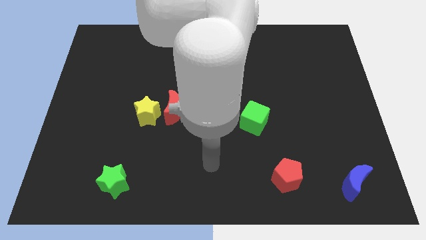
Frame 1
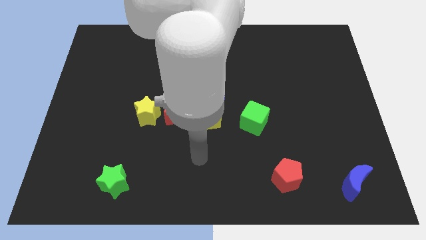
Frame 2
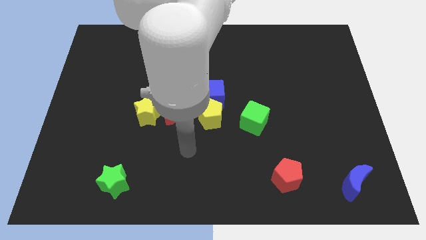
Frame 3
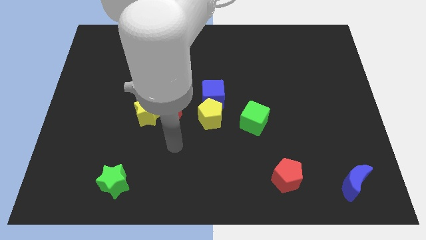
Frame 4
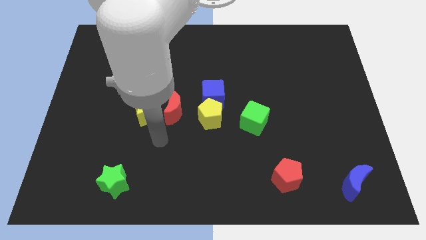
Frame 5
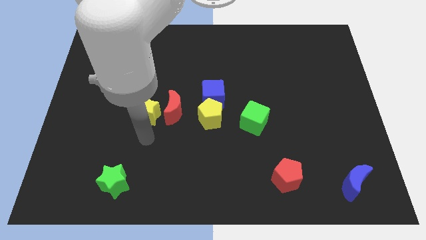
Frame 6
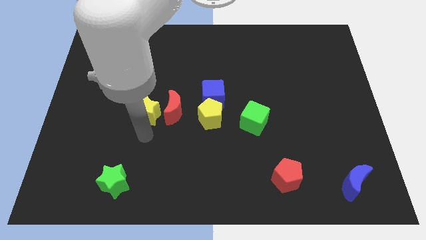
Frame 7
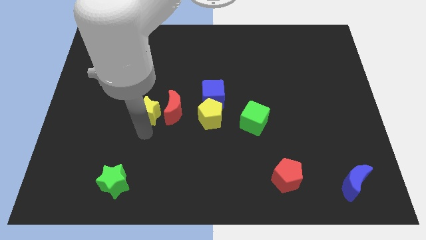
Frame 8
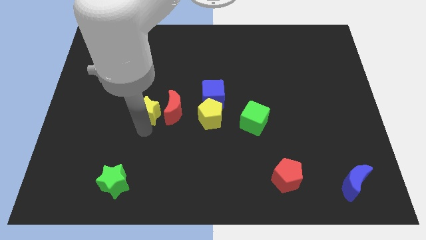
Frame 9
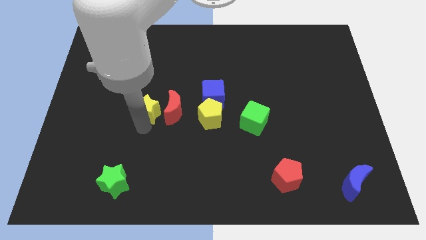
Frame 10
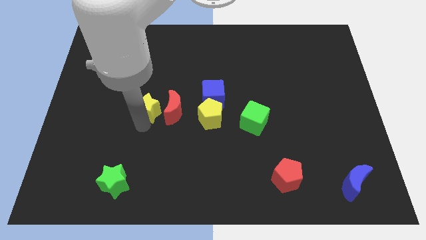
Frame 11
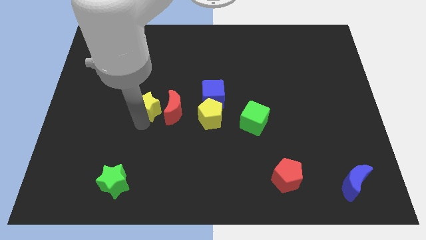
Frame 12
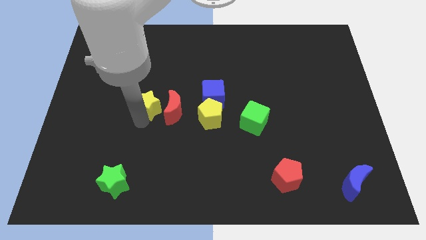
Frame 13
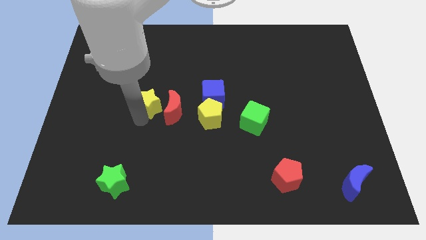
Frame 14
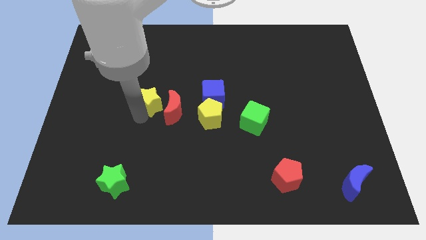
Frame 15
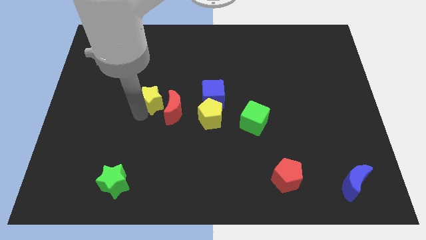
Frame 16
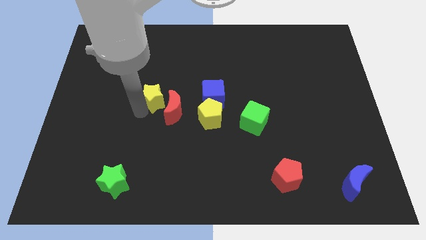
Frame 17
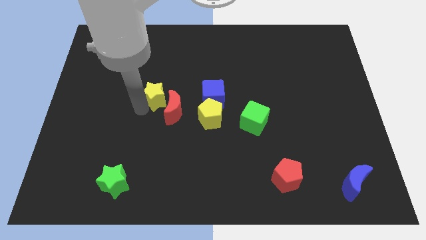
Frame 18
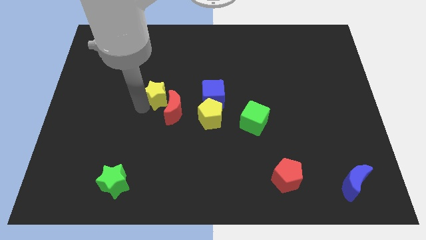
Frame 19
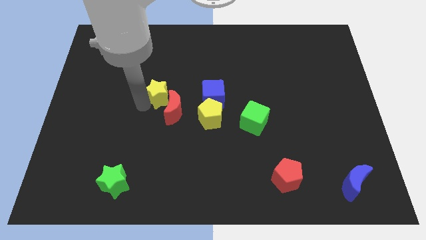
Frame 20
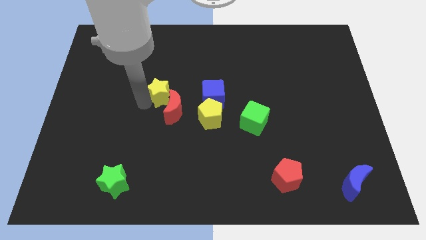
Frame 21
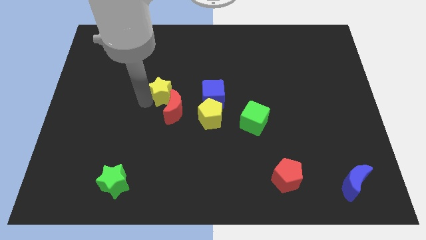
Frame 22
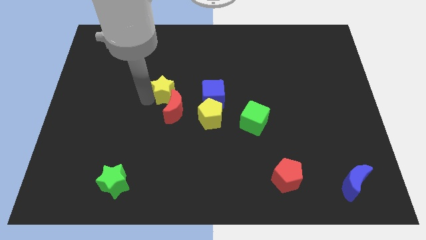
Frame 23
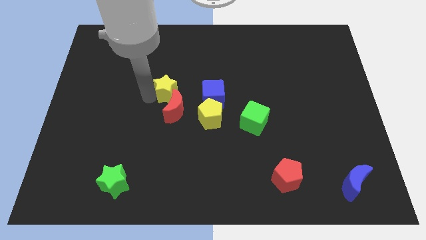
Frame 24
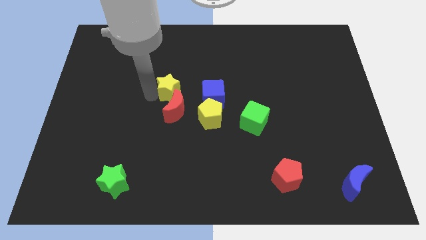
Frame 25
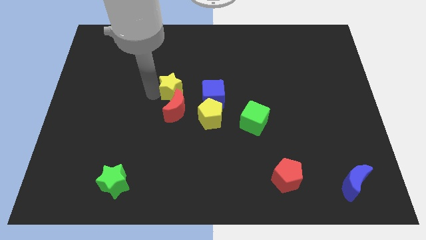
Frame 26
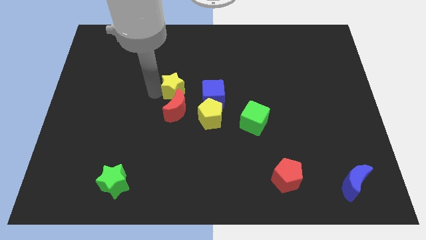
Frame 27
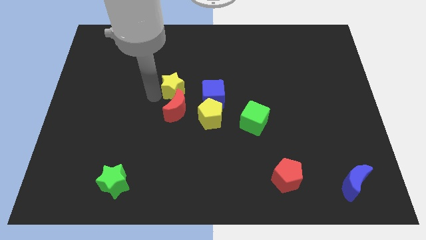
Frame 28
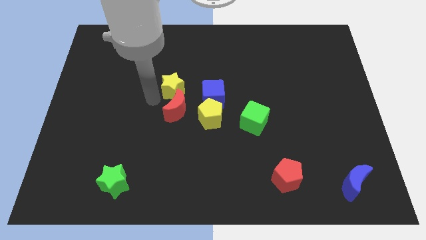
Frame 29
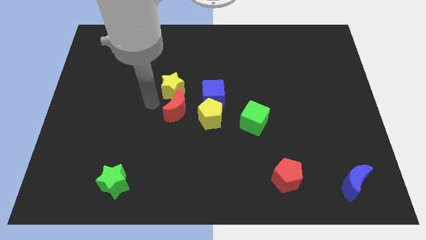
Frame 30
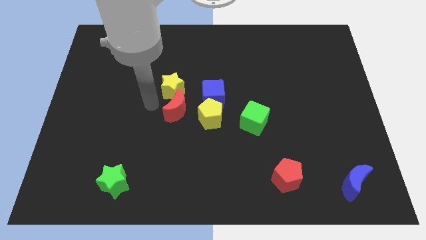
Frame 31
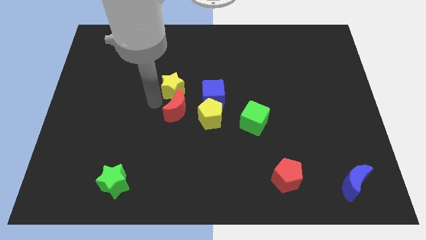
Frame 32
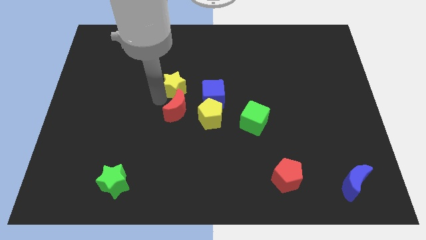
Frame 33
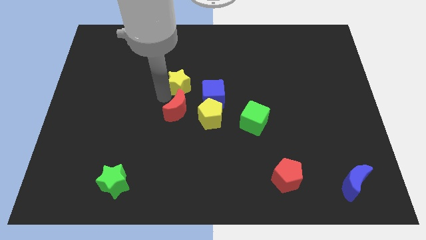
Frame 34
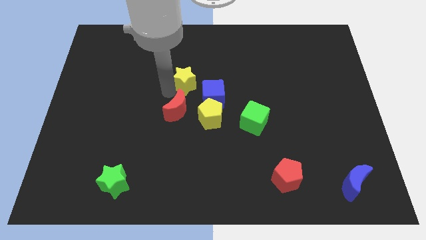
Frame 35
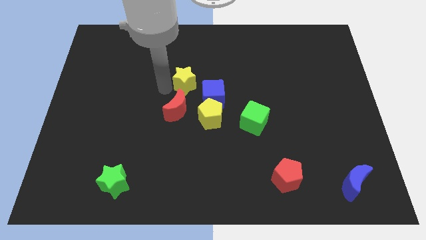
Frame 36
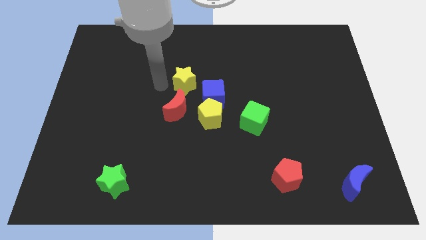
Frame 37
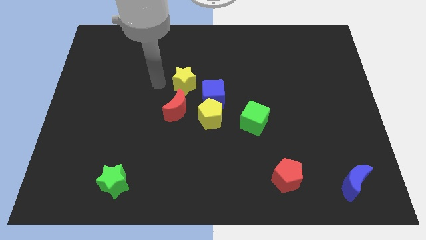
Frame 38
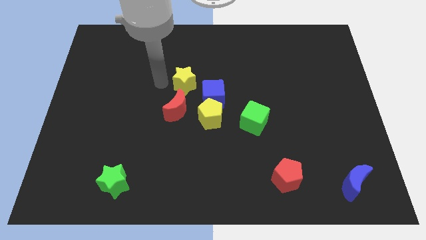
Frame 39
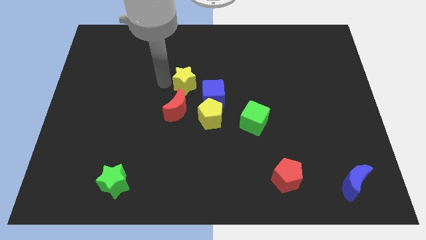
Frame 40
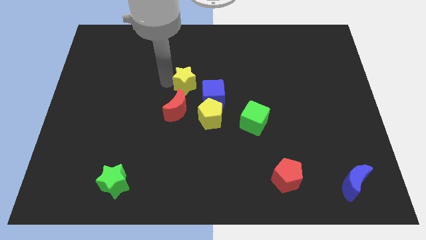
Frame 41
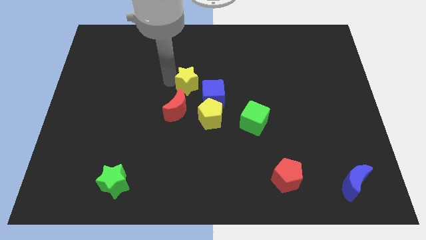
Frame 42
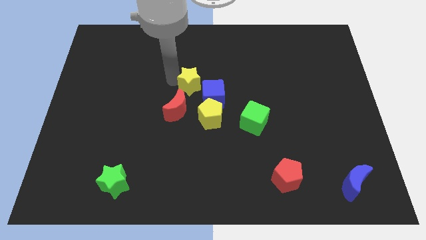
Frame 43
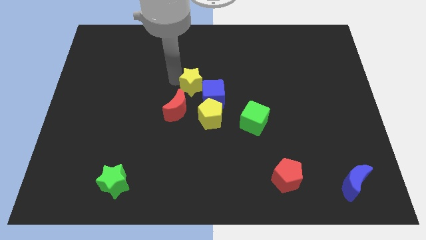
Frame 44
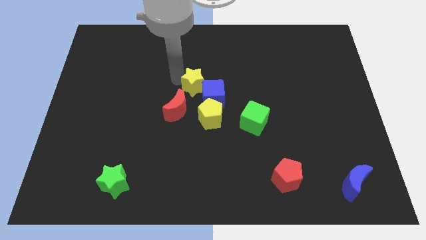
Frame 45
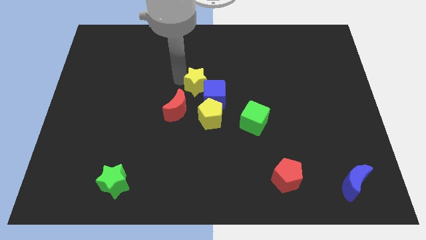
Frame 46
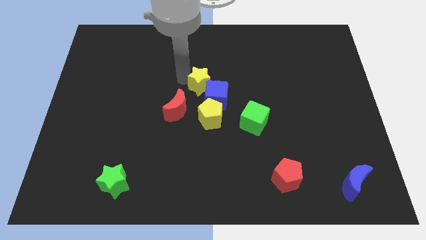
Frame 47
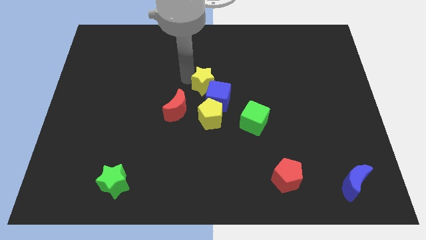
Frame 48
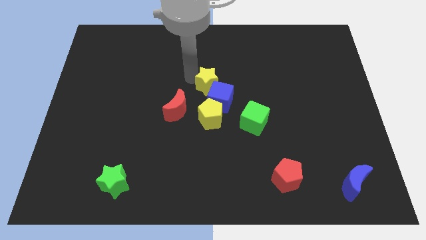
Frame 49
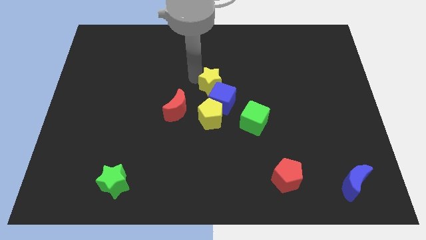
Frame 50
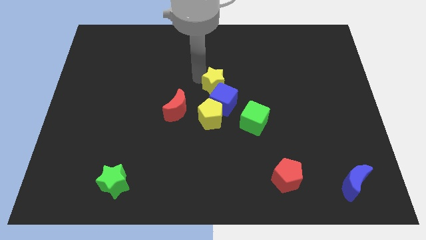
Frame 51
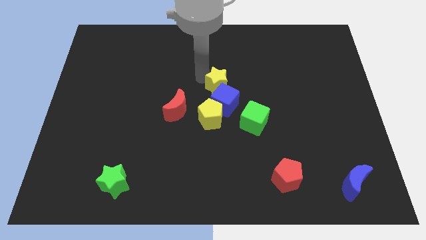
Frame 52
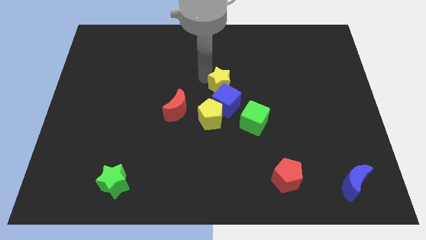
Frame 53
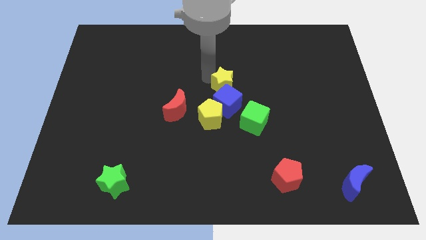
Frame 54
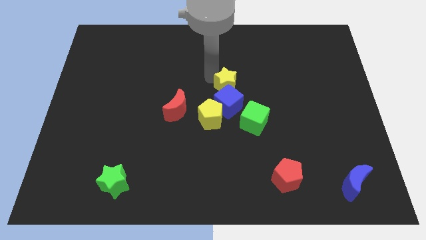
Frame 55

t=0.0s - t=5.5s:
put the yellow star diagonally up and to the right of the blue cube

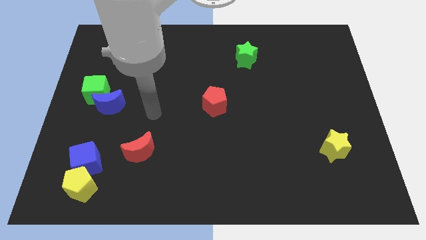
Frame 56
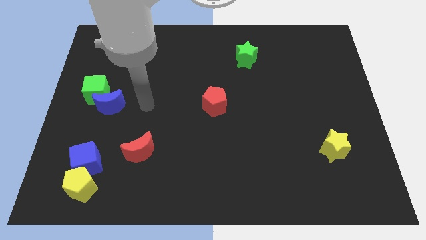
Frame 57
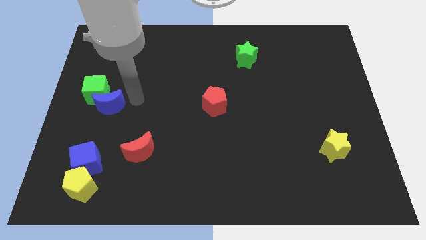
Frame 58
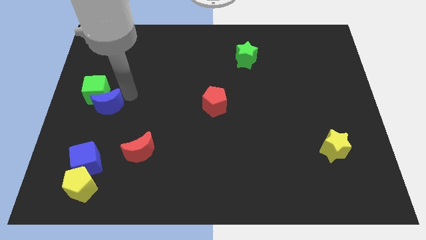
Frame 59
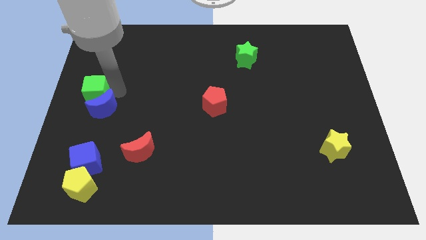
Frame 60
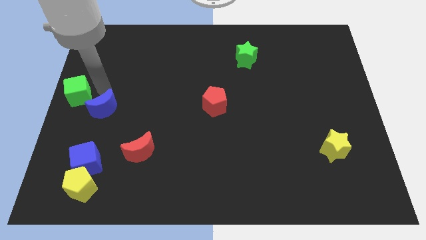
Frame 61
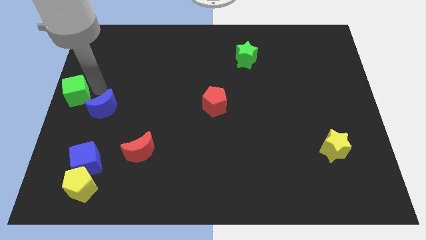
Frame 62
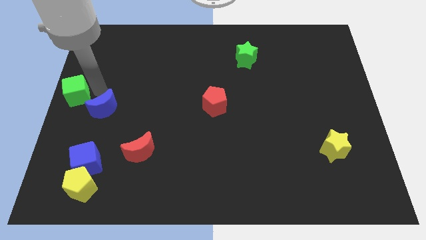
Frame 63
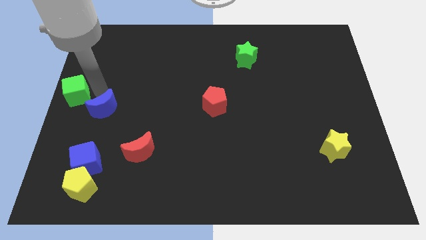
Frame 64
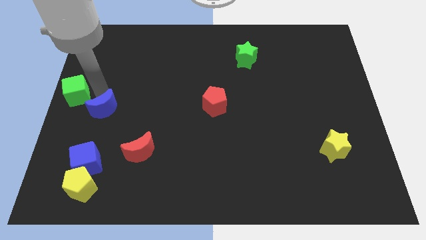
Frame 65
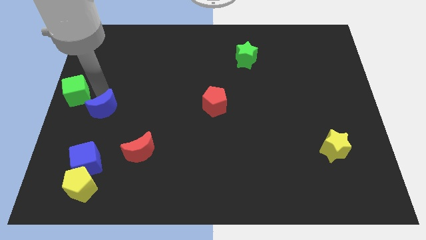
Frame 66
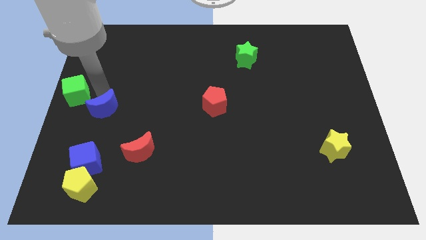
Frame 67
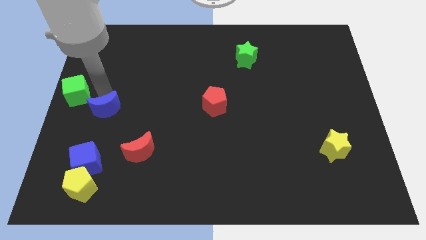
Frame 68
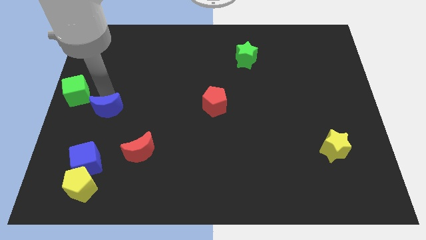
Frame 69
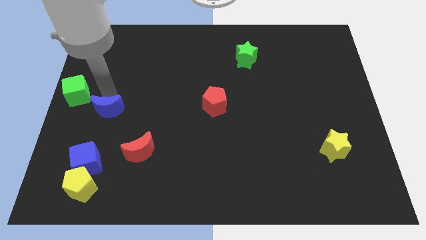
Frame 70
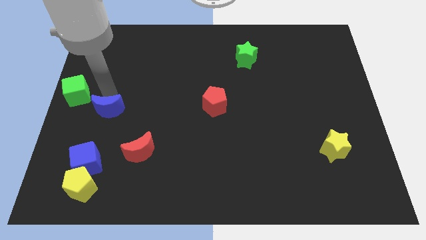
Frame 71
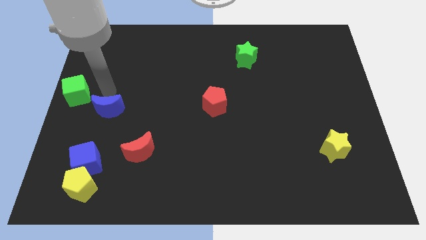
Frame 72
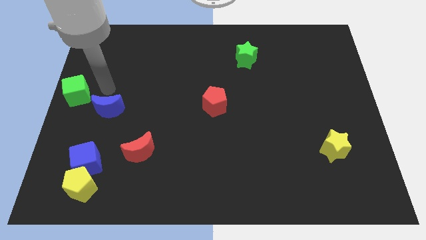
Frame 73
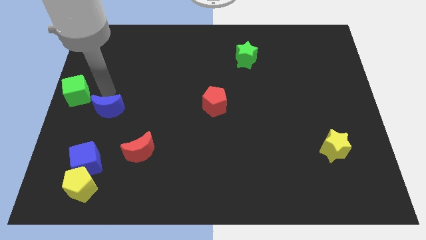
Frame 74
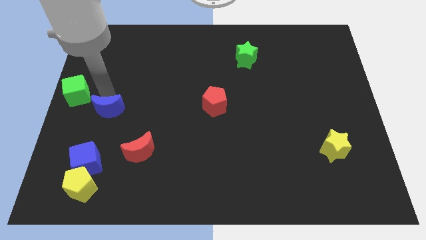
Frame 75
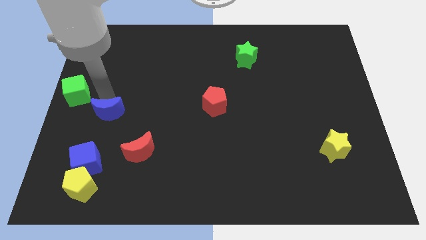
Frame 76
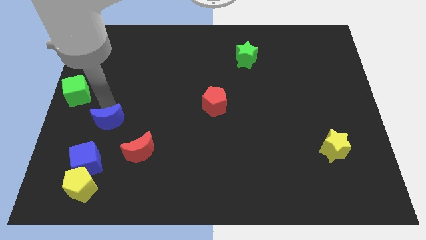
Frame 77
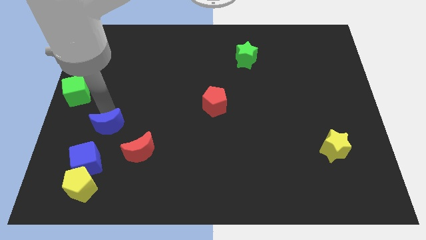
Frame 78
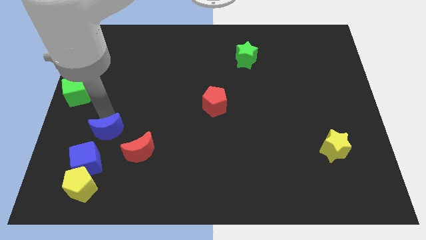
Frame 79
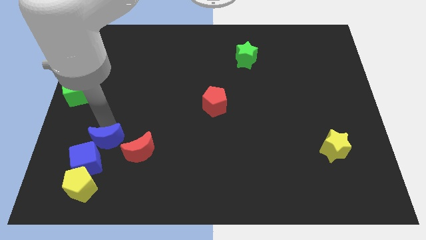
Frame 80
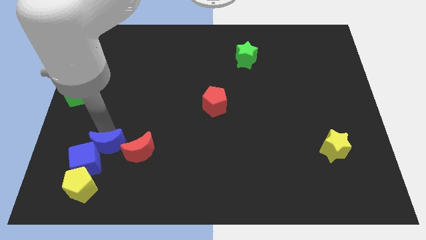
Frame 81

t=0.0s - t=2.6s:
push the blue moon to the top right side of the yellow pentagon
